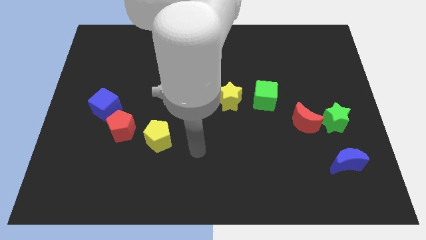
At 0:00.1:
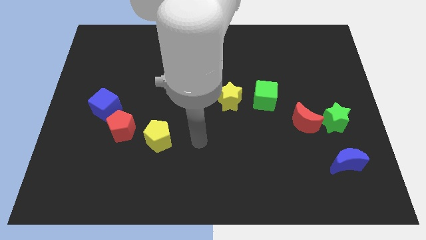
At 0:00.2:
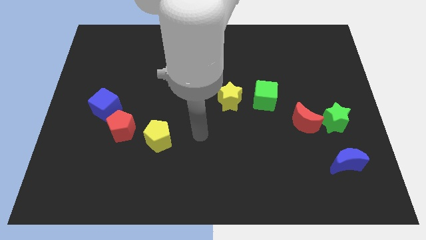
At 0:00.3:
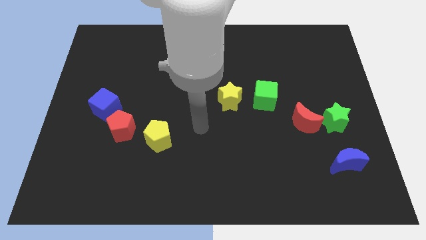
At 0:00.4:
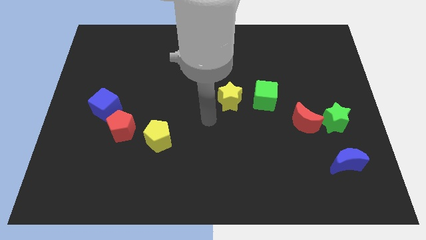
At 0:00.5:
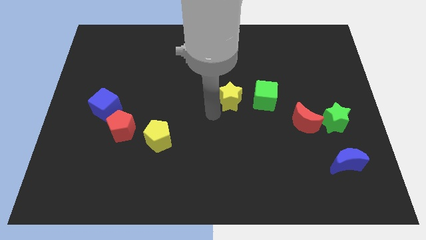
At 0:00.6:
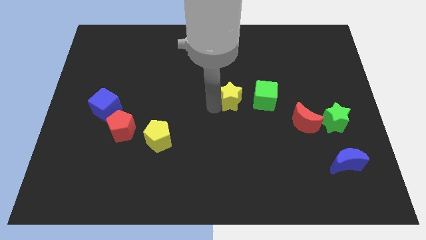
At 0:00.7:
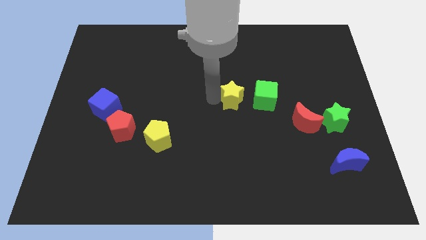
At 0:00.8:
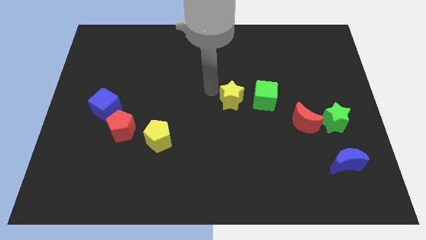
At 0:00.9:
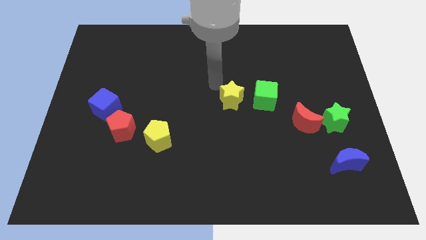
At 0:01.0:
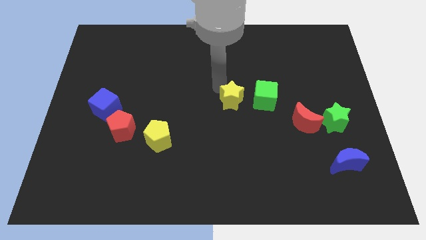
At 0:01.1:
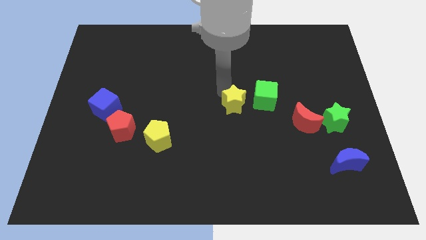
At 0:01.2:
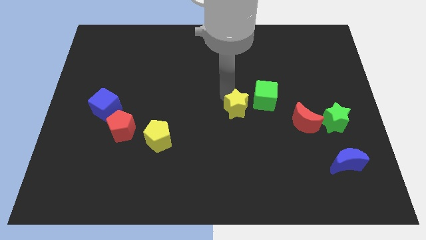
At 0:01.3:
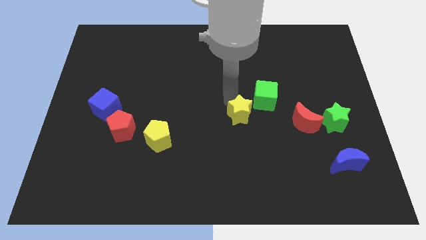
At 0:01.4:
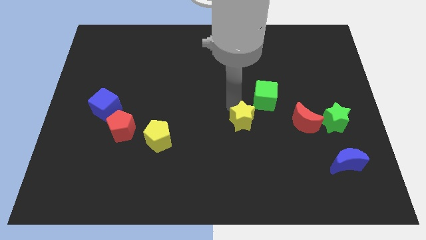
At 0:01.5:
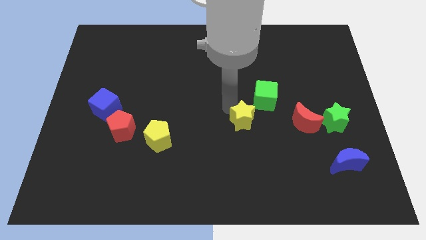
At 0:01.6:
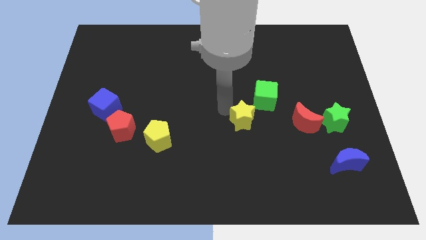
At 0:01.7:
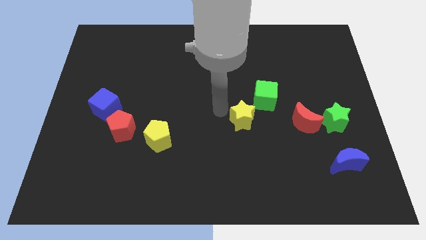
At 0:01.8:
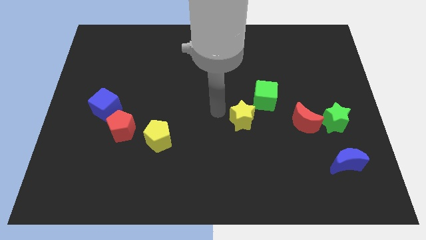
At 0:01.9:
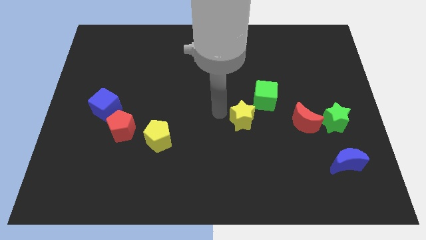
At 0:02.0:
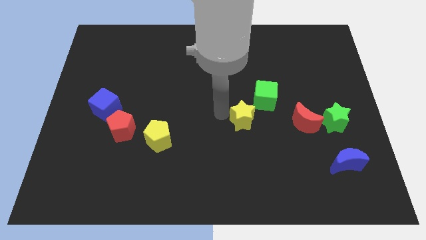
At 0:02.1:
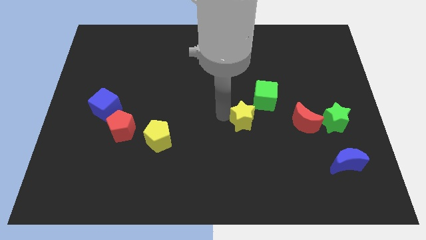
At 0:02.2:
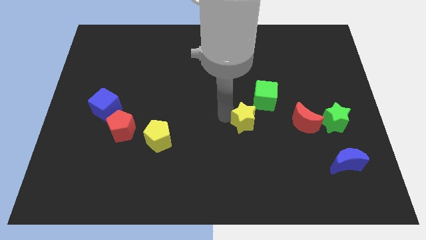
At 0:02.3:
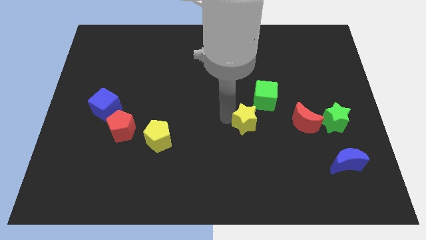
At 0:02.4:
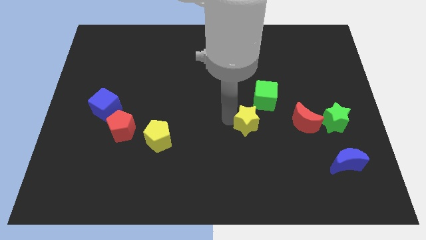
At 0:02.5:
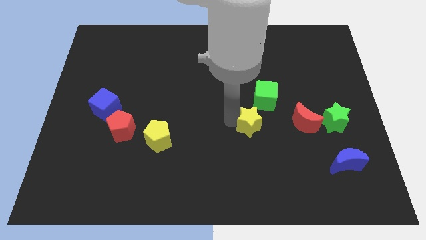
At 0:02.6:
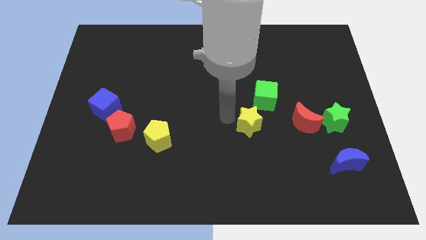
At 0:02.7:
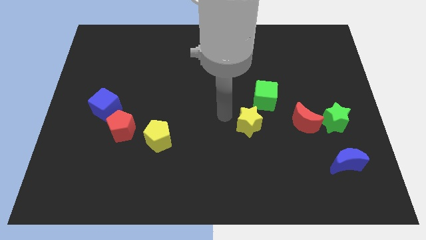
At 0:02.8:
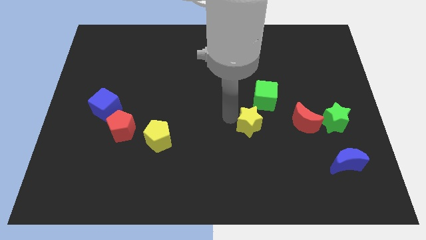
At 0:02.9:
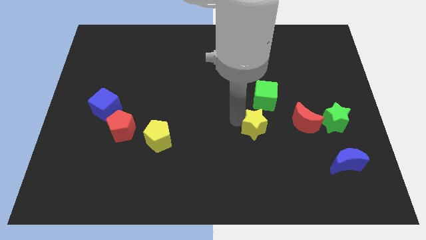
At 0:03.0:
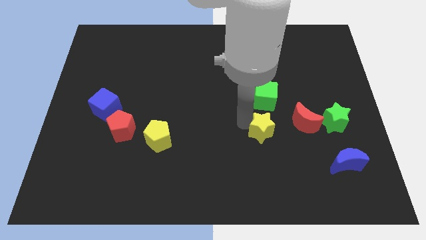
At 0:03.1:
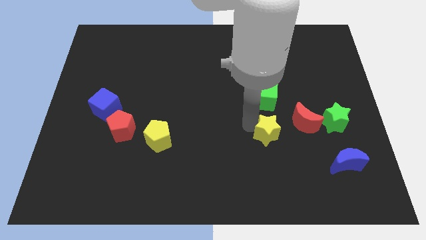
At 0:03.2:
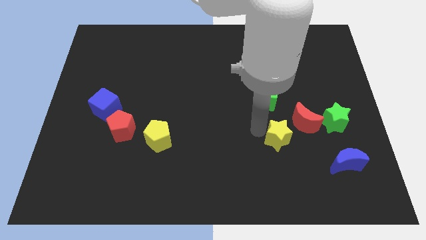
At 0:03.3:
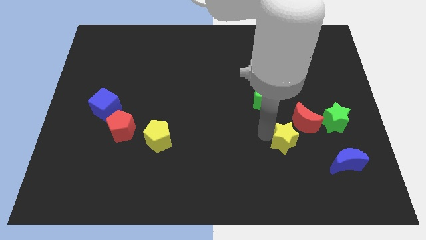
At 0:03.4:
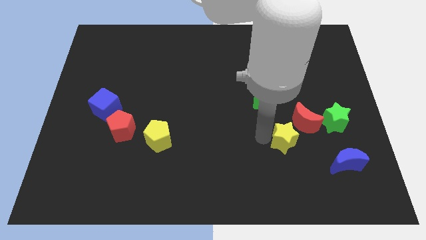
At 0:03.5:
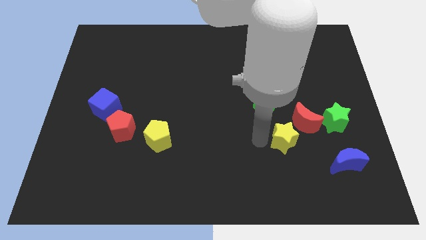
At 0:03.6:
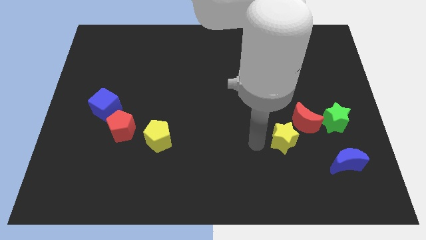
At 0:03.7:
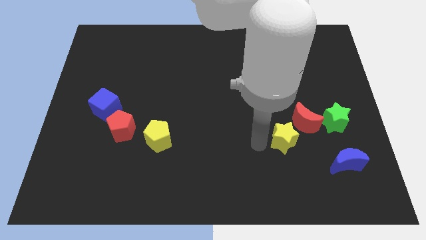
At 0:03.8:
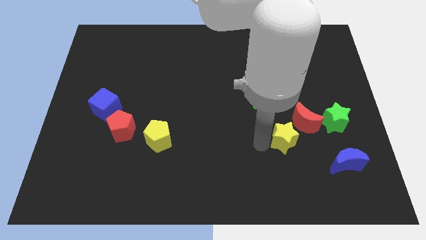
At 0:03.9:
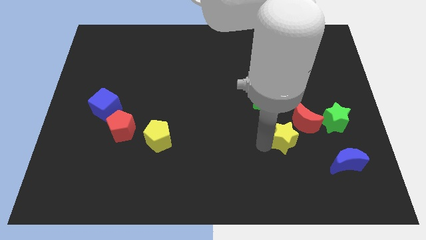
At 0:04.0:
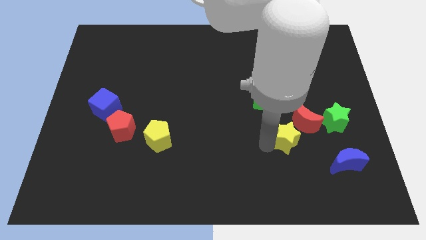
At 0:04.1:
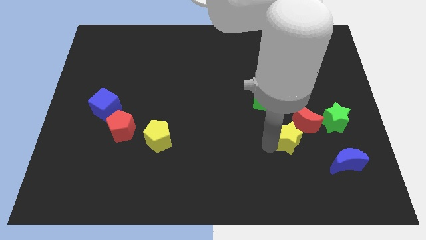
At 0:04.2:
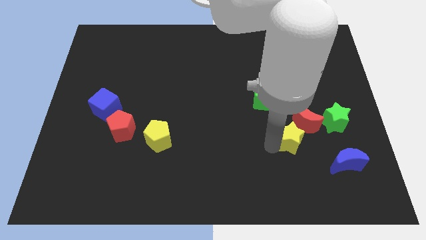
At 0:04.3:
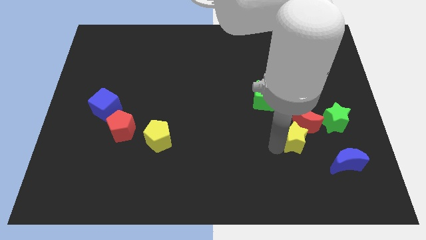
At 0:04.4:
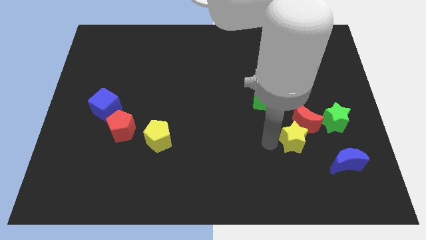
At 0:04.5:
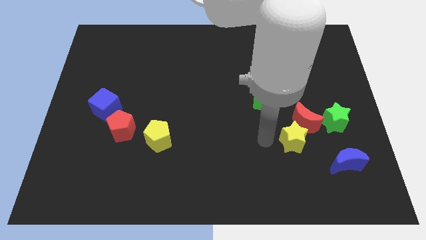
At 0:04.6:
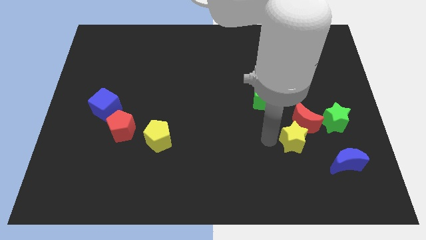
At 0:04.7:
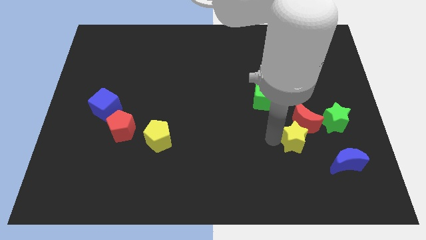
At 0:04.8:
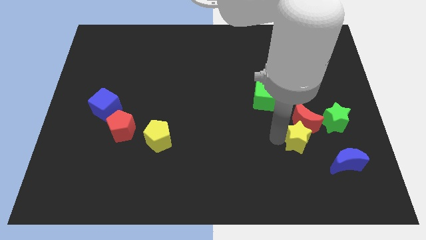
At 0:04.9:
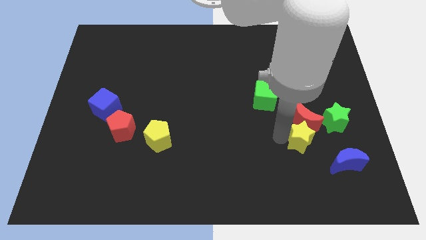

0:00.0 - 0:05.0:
move the yellow star diagonally down and to the right of the red moon

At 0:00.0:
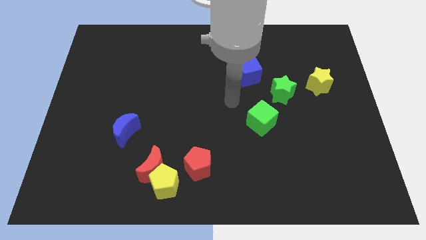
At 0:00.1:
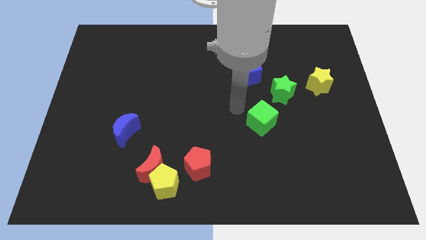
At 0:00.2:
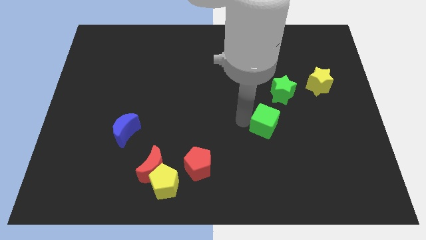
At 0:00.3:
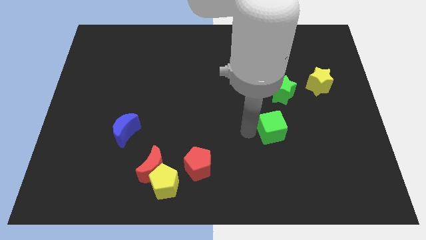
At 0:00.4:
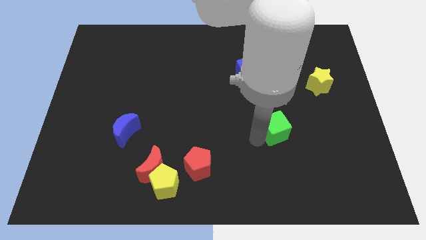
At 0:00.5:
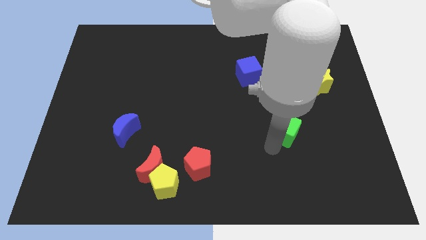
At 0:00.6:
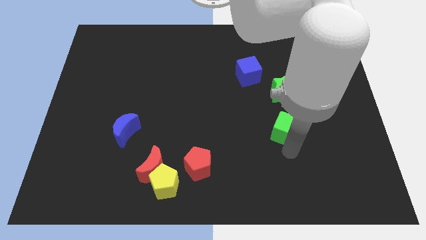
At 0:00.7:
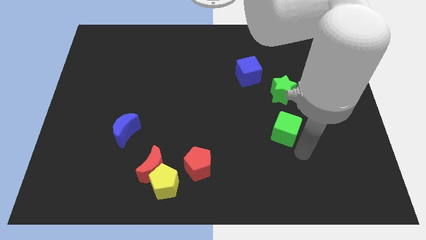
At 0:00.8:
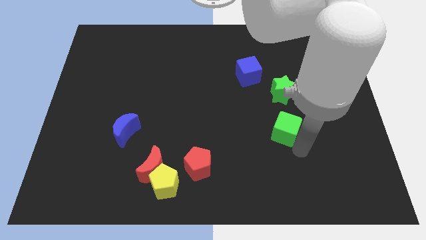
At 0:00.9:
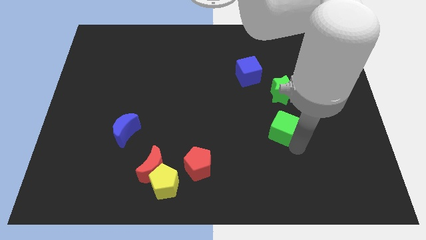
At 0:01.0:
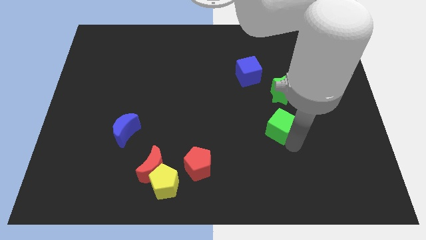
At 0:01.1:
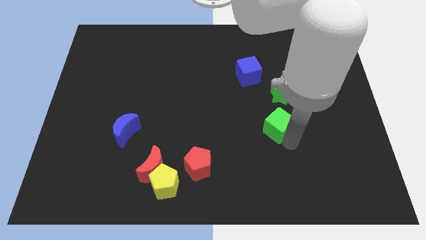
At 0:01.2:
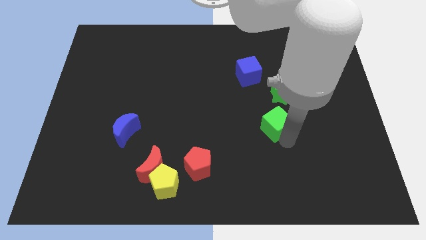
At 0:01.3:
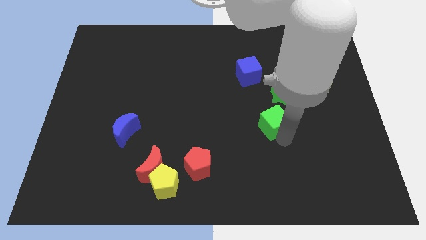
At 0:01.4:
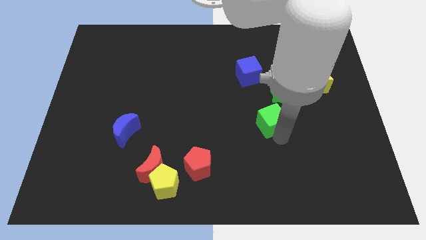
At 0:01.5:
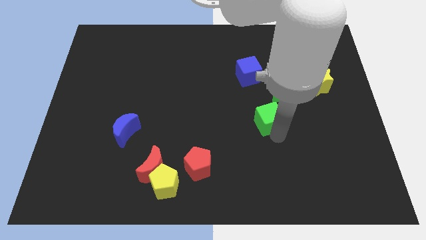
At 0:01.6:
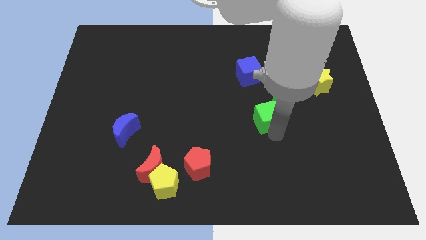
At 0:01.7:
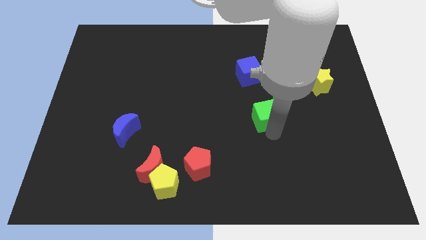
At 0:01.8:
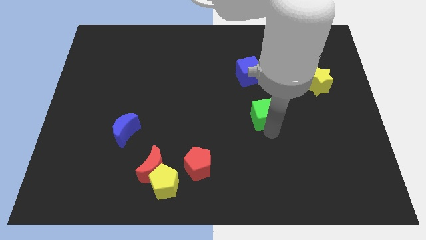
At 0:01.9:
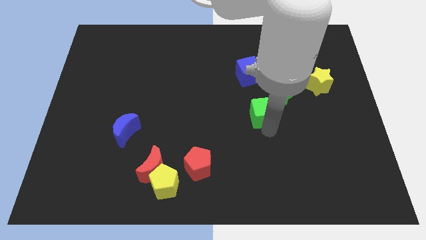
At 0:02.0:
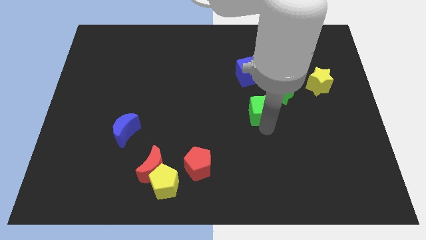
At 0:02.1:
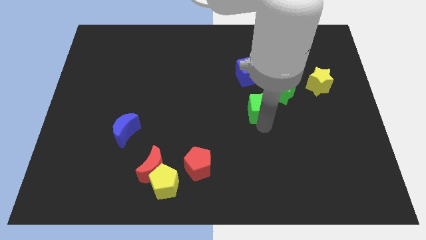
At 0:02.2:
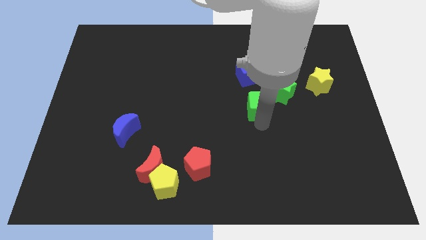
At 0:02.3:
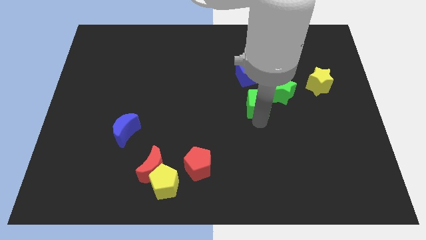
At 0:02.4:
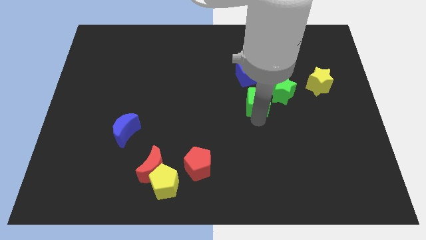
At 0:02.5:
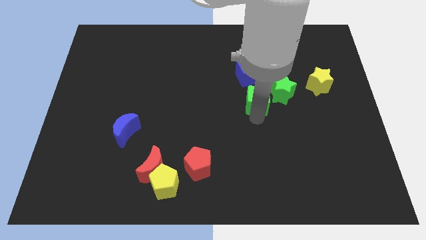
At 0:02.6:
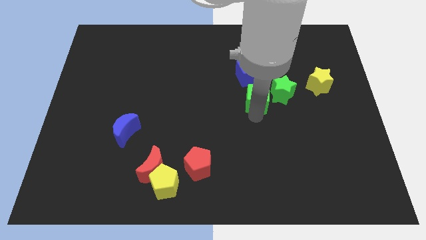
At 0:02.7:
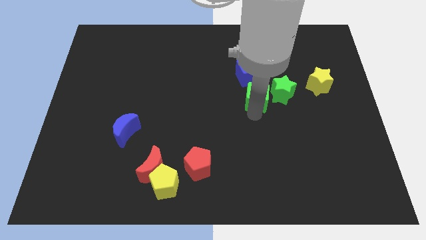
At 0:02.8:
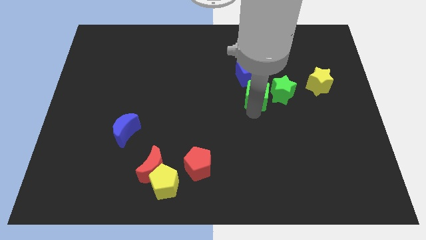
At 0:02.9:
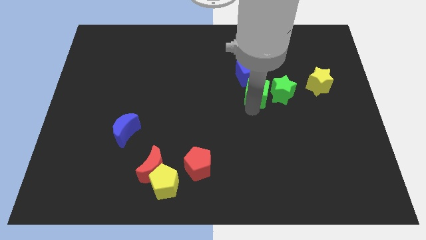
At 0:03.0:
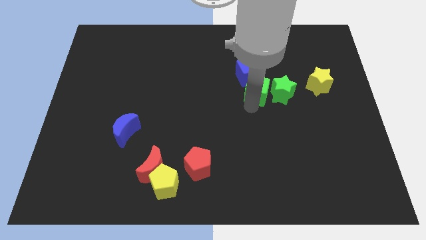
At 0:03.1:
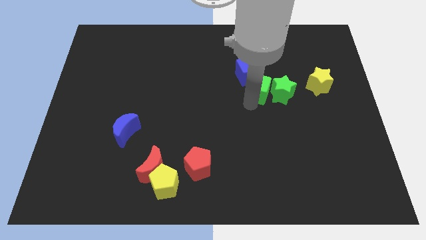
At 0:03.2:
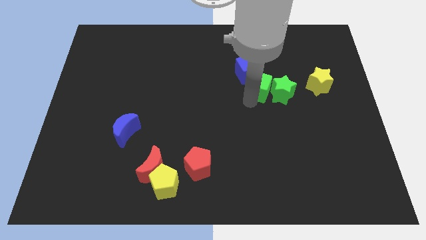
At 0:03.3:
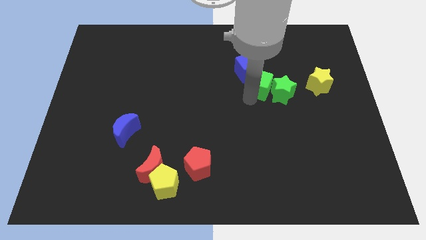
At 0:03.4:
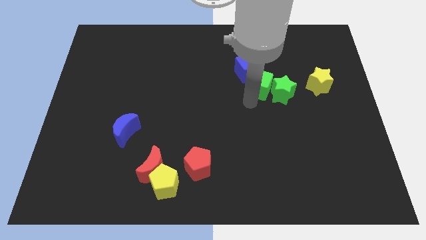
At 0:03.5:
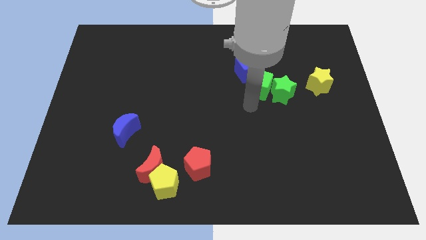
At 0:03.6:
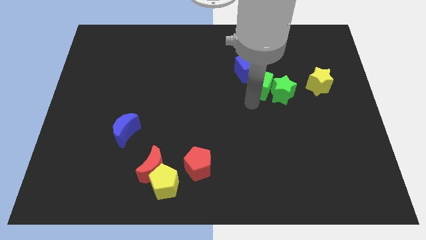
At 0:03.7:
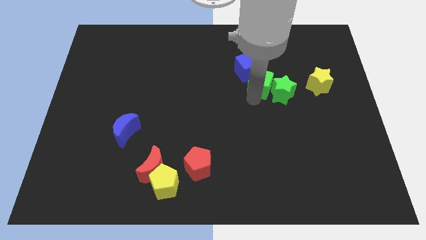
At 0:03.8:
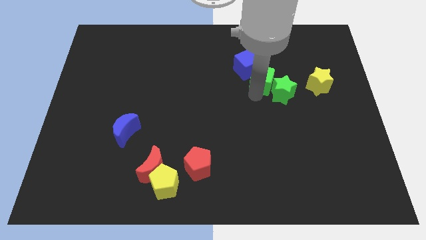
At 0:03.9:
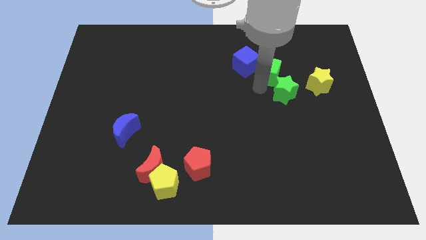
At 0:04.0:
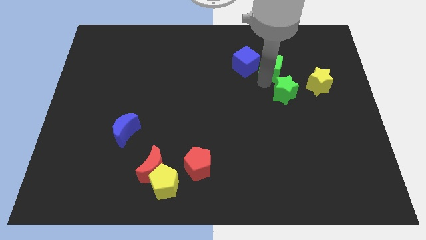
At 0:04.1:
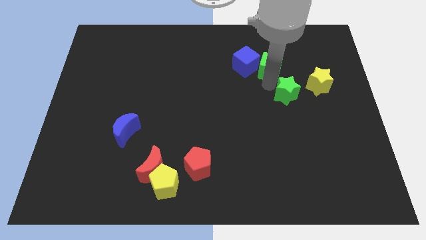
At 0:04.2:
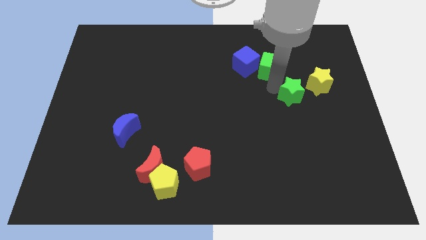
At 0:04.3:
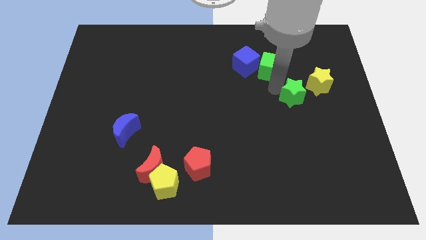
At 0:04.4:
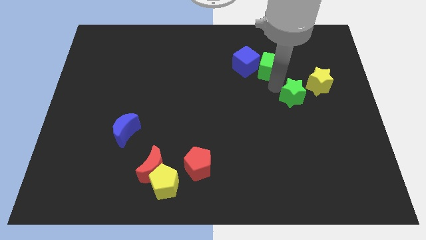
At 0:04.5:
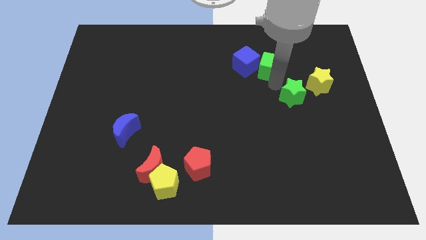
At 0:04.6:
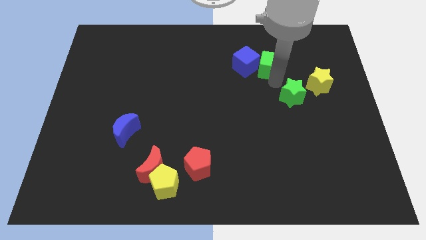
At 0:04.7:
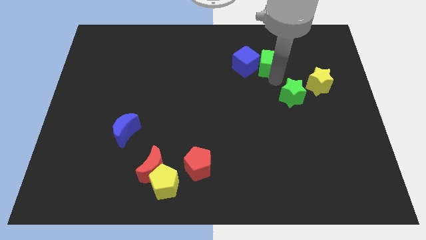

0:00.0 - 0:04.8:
move the green cube diagonally up and to the right of the blue cube
